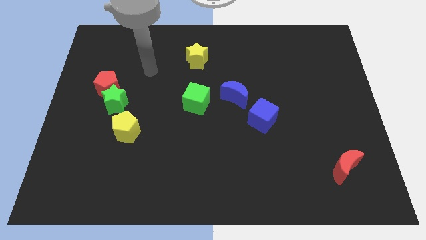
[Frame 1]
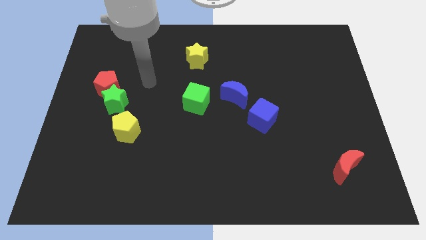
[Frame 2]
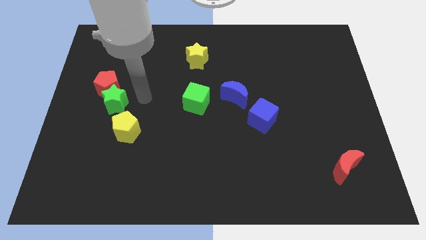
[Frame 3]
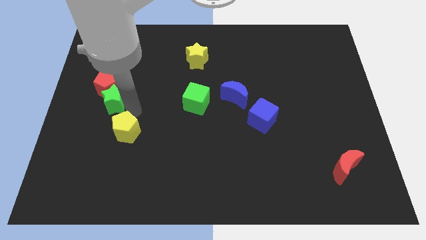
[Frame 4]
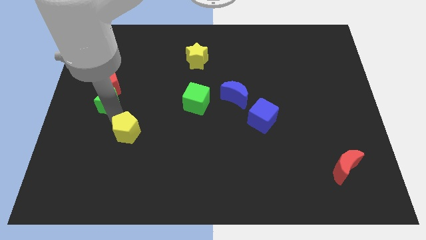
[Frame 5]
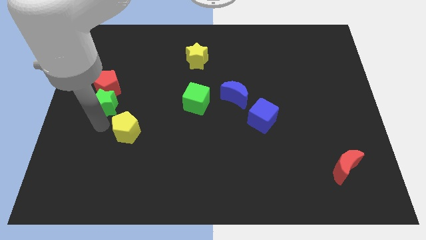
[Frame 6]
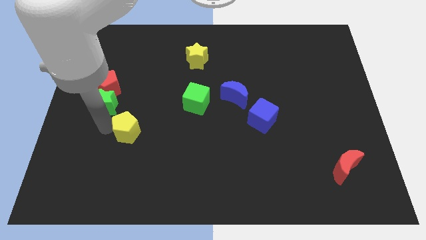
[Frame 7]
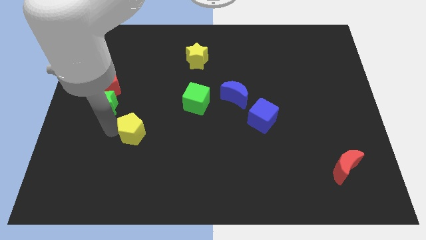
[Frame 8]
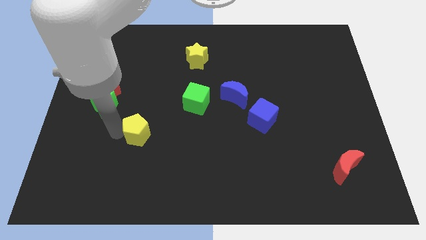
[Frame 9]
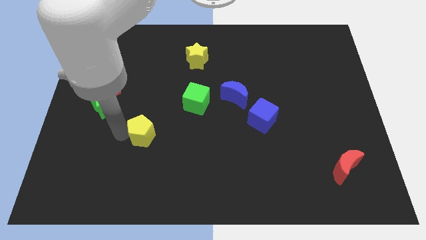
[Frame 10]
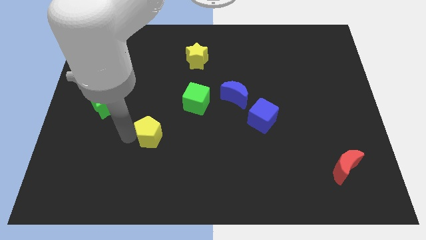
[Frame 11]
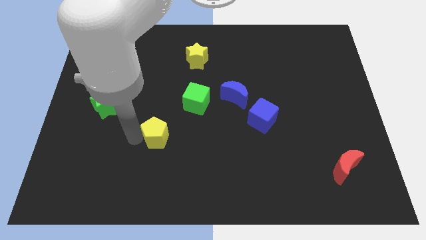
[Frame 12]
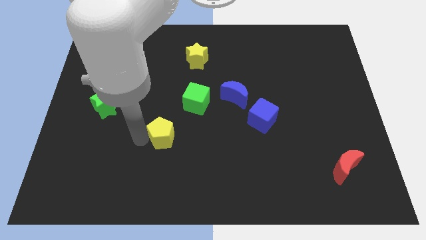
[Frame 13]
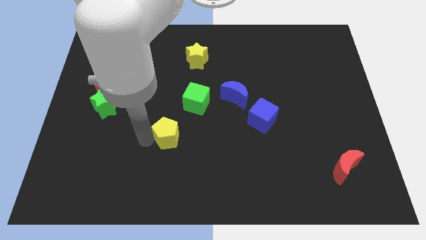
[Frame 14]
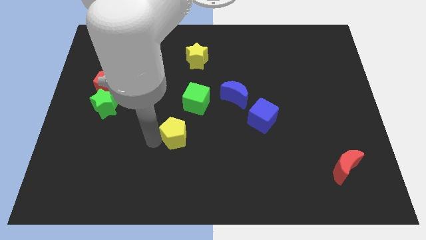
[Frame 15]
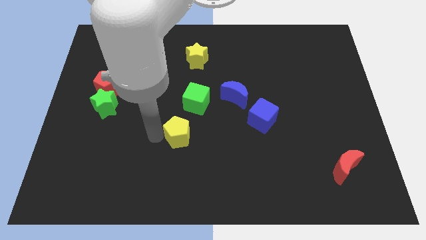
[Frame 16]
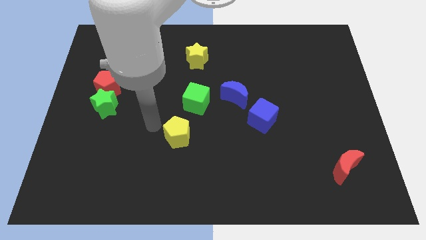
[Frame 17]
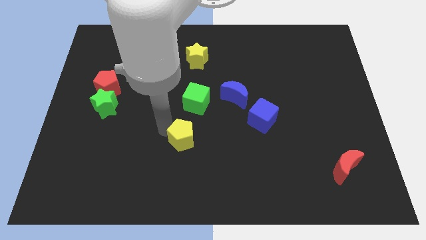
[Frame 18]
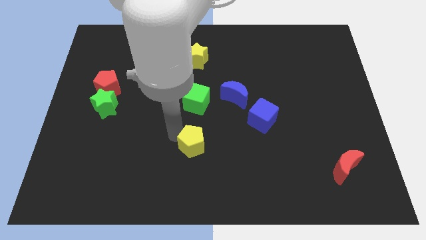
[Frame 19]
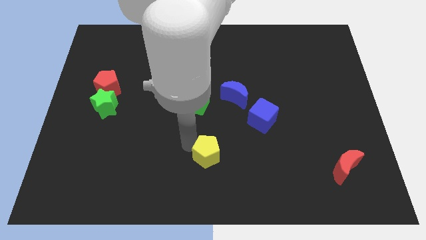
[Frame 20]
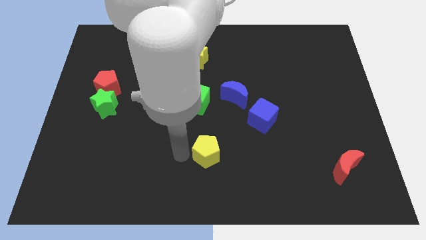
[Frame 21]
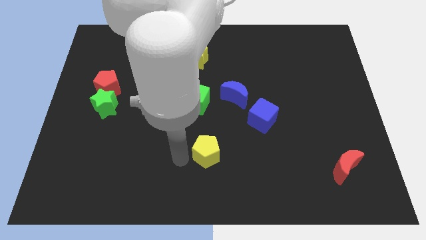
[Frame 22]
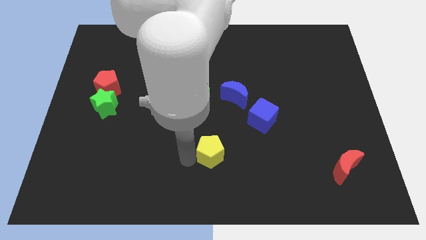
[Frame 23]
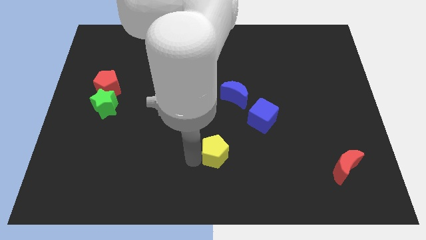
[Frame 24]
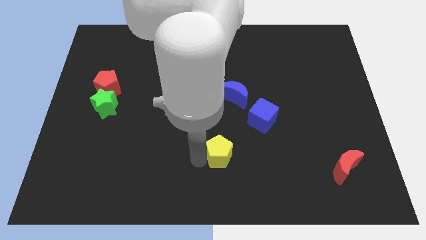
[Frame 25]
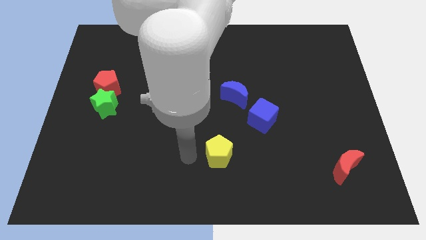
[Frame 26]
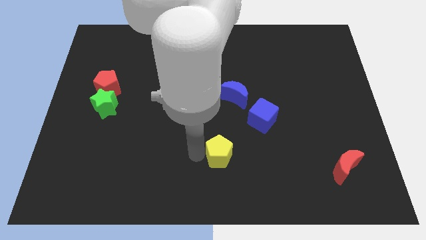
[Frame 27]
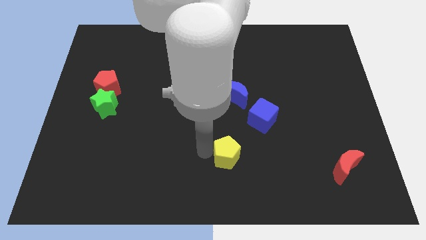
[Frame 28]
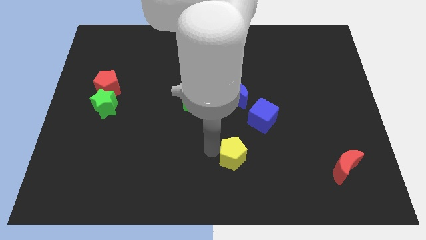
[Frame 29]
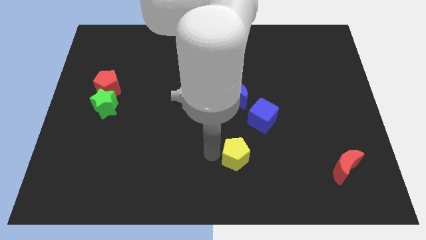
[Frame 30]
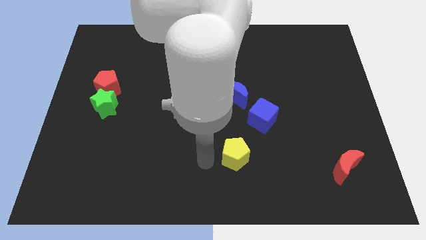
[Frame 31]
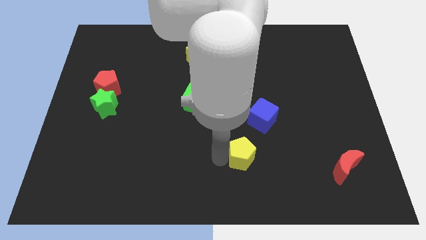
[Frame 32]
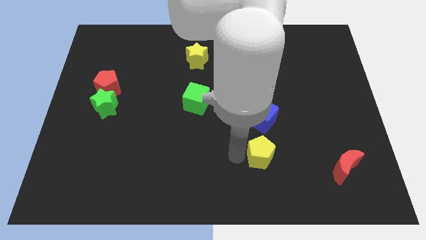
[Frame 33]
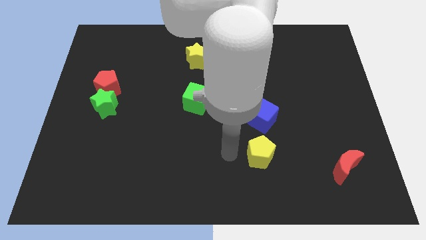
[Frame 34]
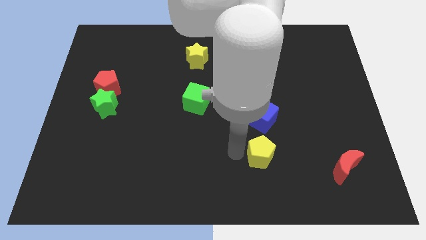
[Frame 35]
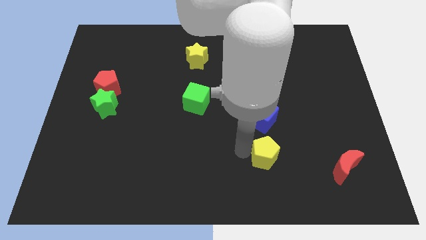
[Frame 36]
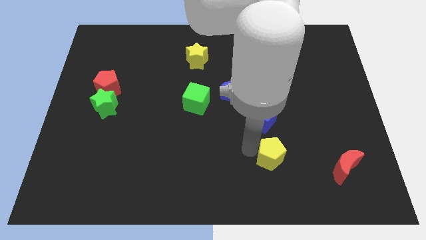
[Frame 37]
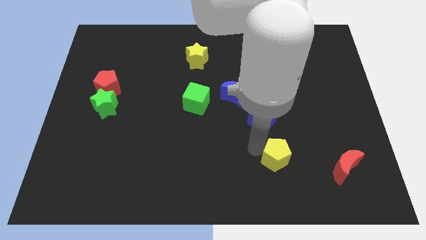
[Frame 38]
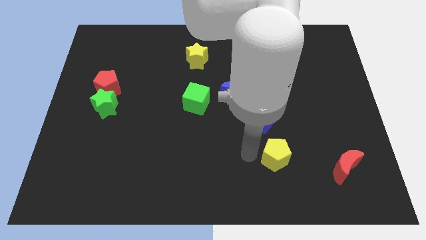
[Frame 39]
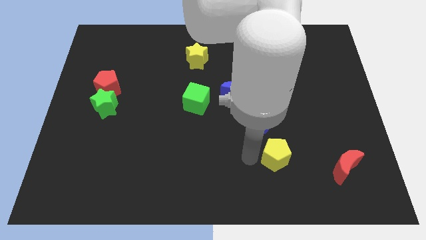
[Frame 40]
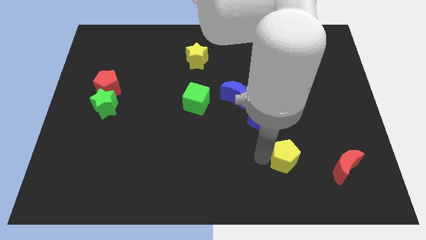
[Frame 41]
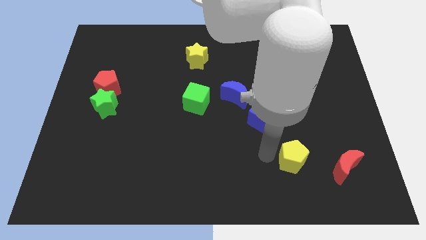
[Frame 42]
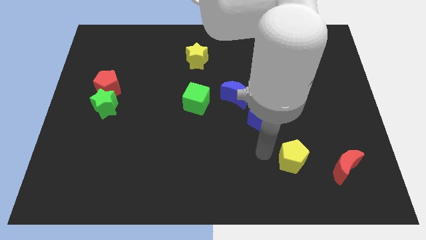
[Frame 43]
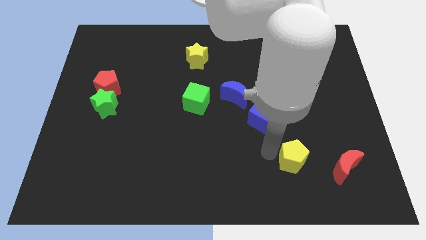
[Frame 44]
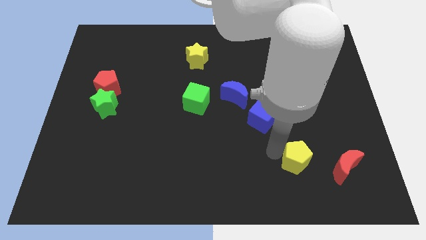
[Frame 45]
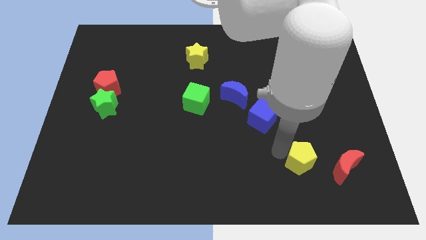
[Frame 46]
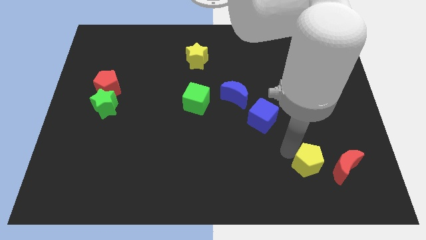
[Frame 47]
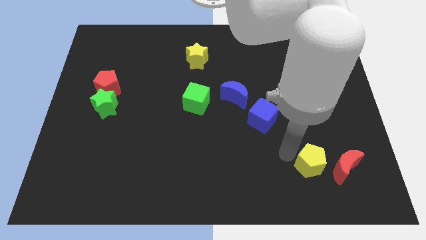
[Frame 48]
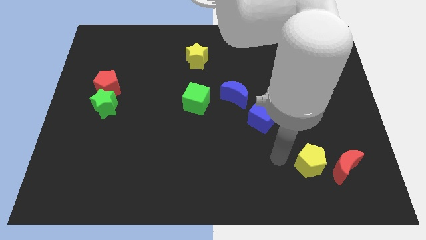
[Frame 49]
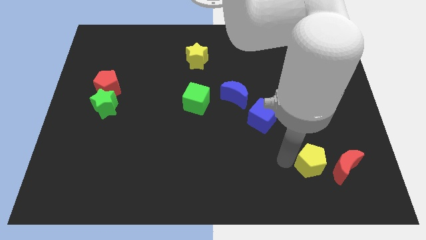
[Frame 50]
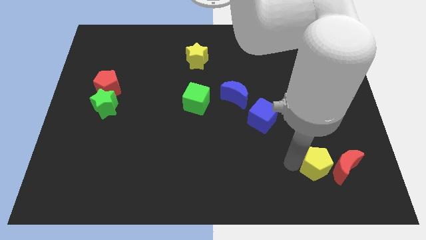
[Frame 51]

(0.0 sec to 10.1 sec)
put the yellow pentagon next to the red moon

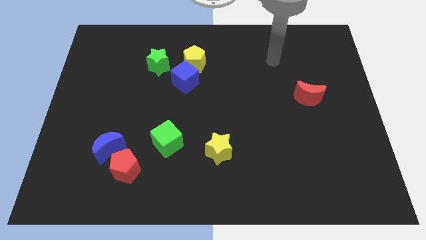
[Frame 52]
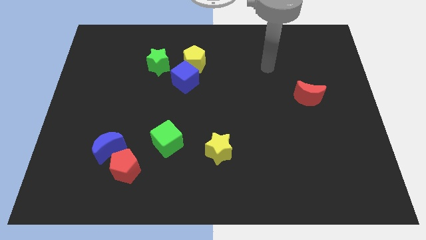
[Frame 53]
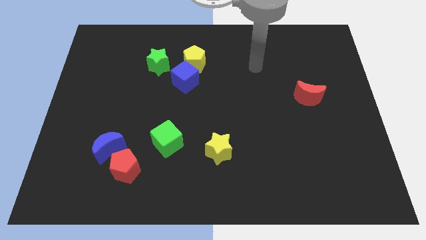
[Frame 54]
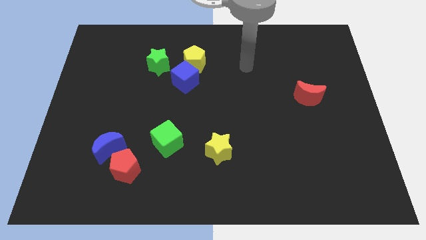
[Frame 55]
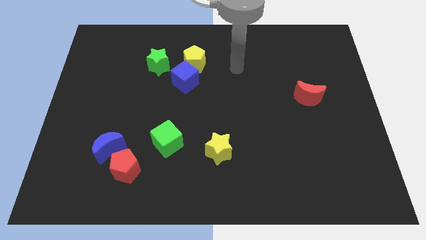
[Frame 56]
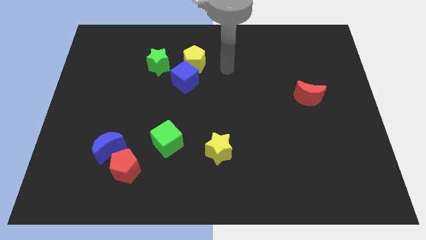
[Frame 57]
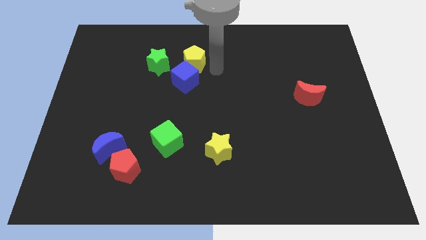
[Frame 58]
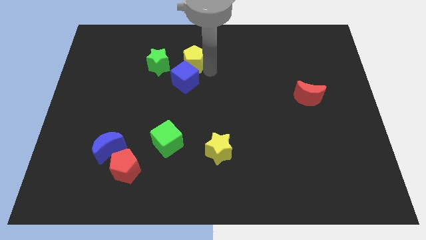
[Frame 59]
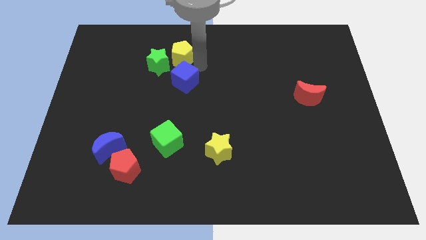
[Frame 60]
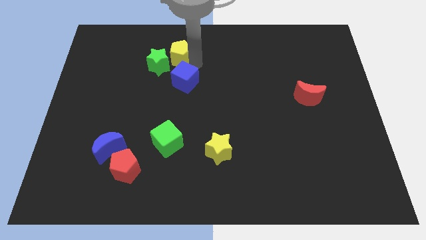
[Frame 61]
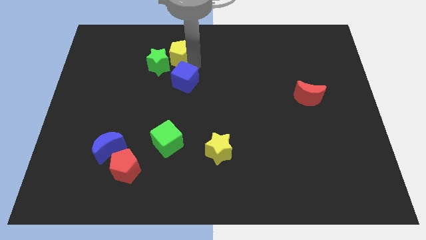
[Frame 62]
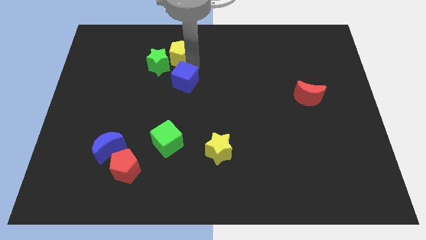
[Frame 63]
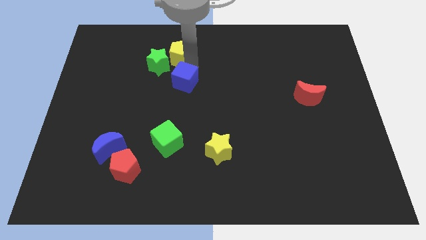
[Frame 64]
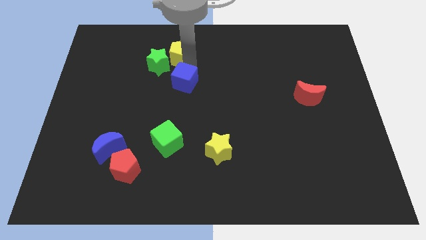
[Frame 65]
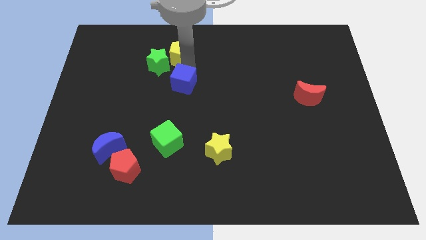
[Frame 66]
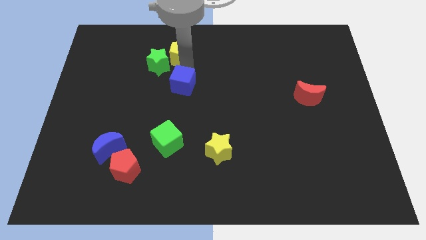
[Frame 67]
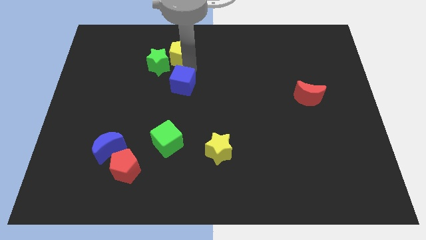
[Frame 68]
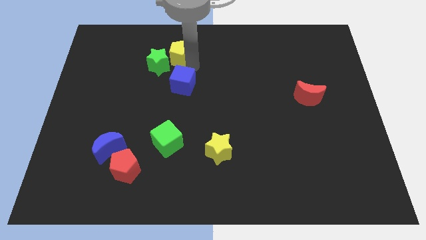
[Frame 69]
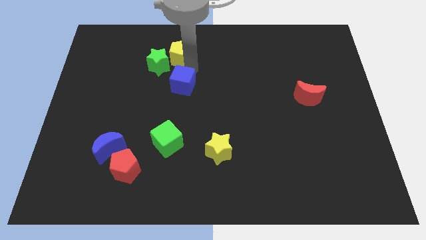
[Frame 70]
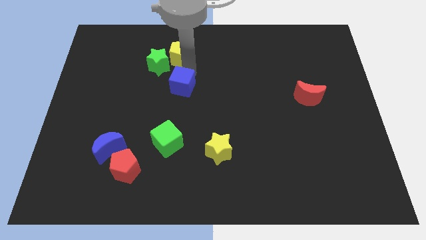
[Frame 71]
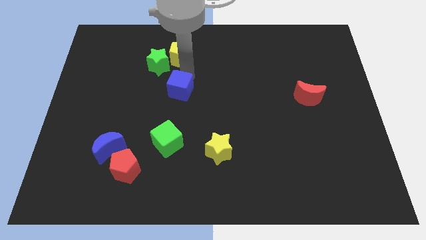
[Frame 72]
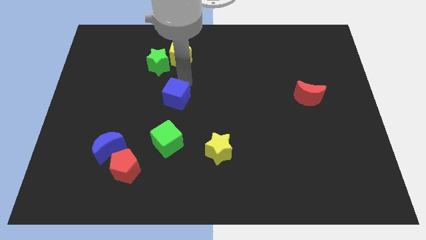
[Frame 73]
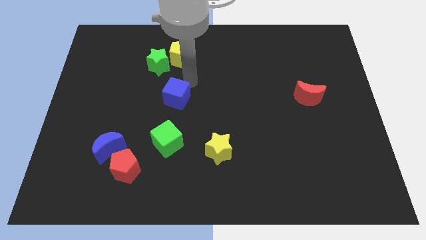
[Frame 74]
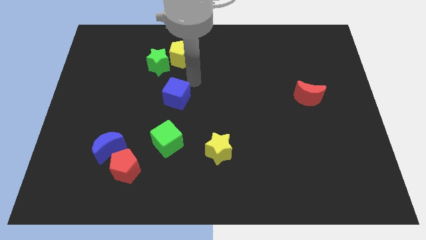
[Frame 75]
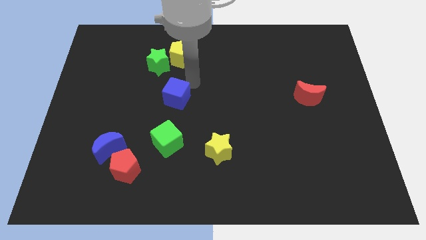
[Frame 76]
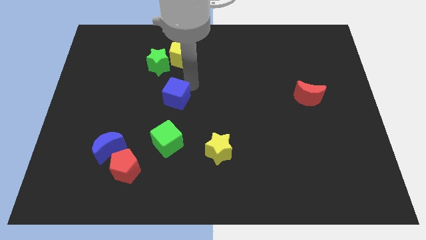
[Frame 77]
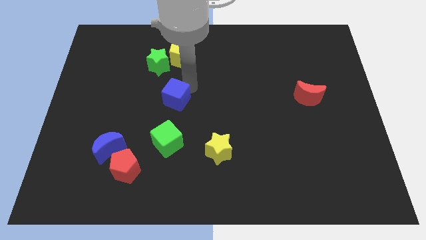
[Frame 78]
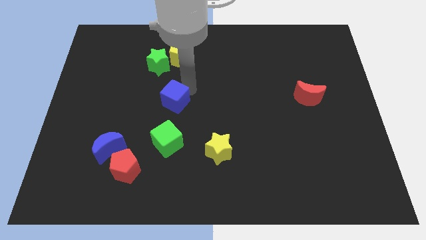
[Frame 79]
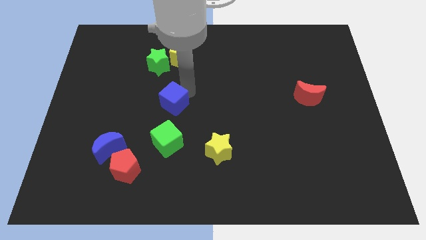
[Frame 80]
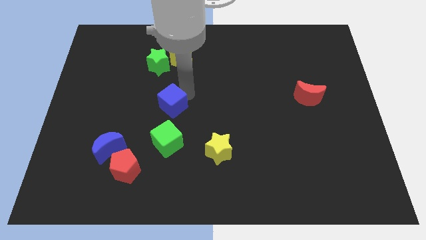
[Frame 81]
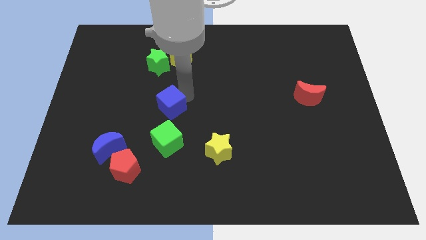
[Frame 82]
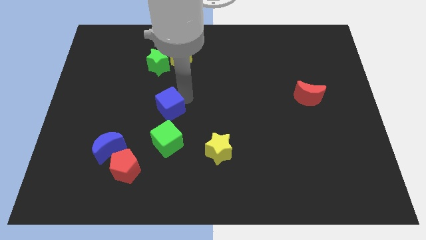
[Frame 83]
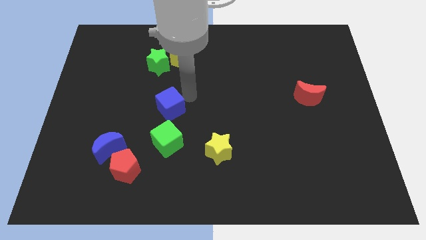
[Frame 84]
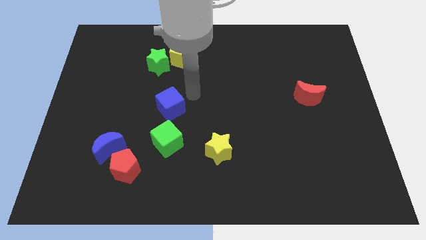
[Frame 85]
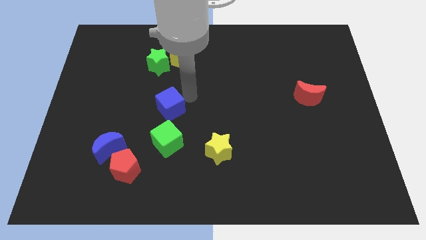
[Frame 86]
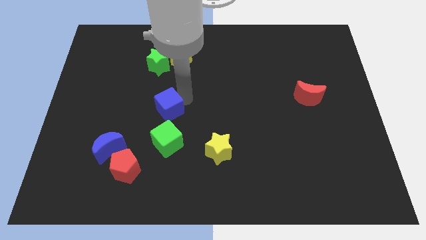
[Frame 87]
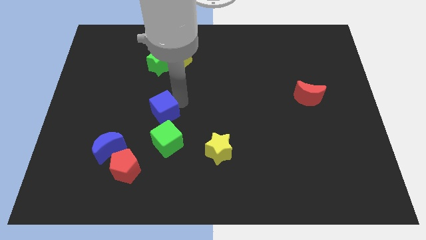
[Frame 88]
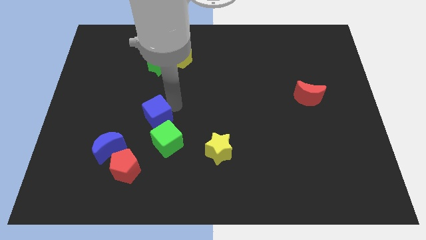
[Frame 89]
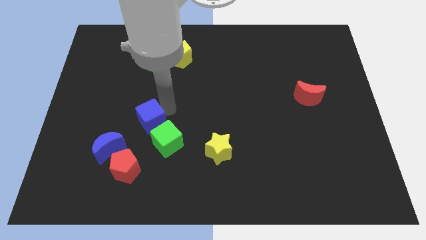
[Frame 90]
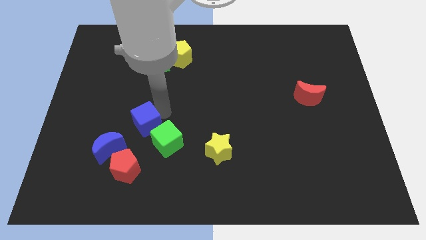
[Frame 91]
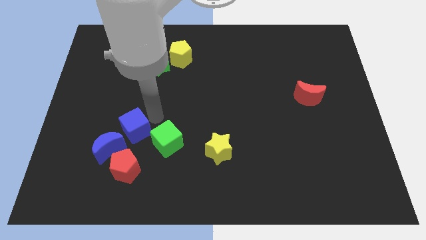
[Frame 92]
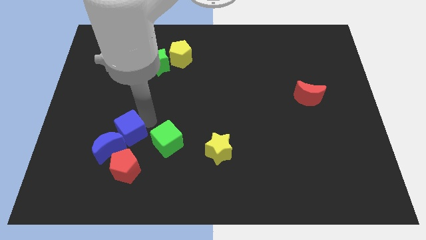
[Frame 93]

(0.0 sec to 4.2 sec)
push the blue cube towards the blue moon
